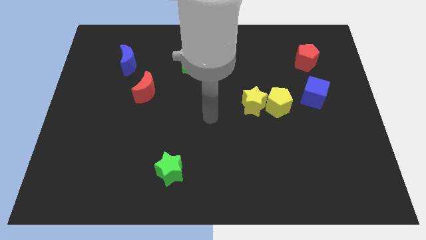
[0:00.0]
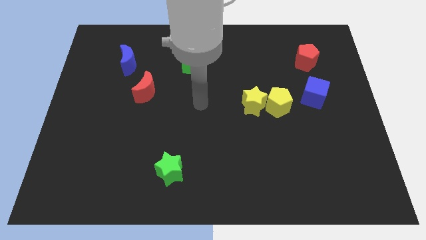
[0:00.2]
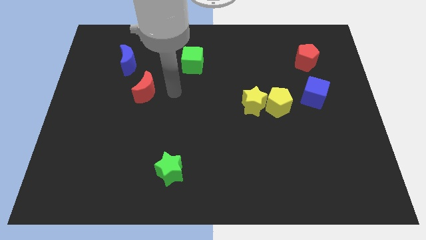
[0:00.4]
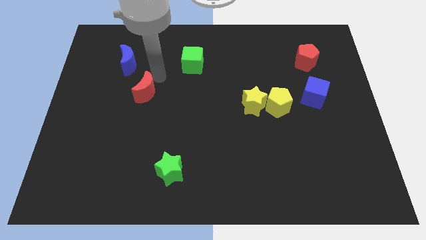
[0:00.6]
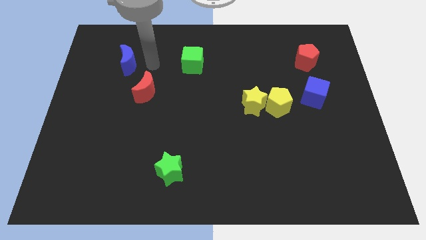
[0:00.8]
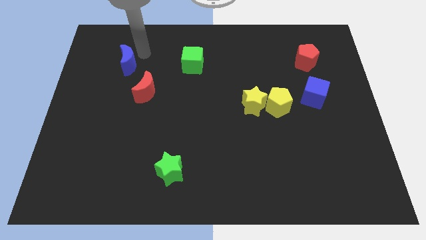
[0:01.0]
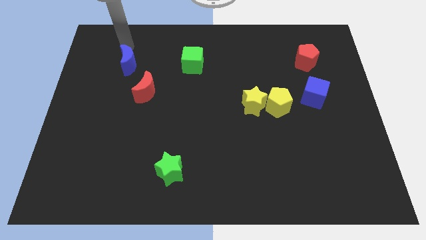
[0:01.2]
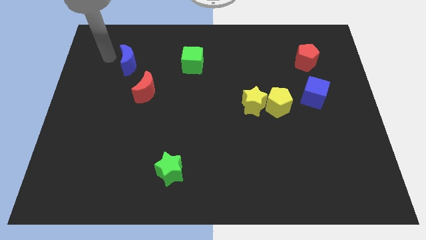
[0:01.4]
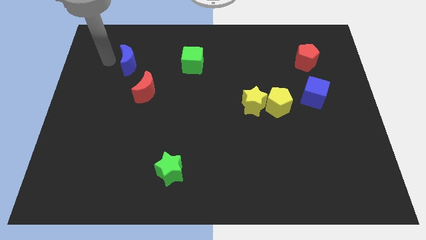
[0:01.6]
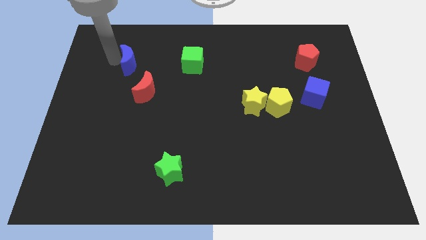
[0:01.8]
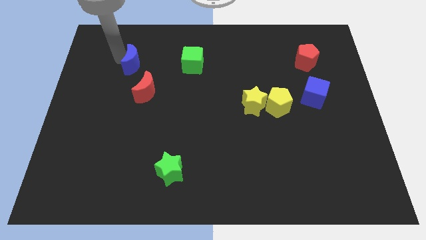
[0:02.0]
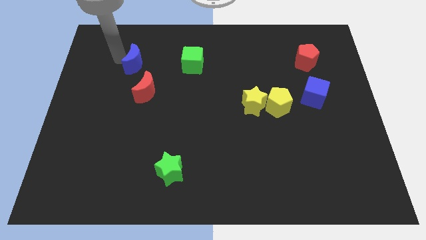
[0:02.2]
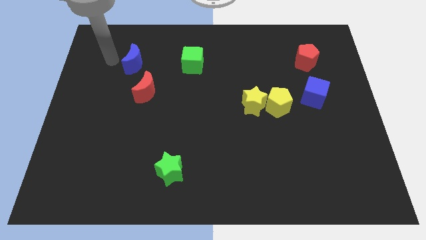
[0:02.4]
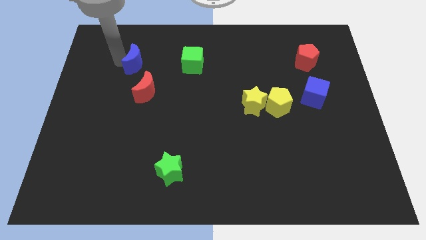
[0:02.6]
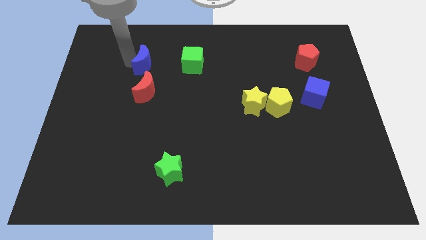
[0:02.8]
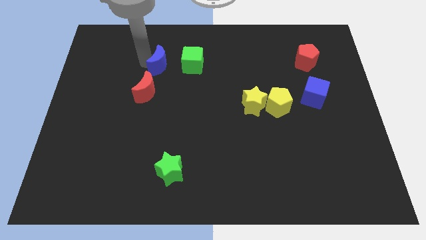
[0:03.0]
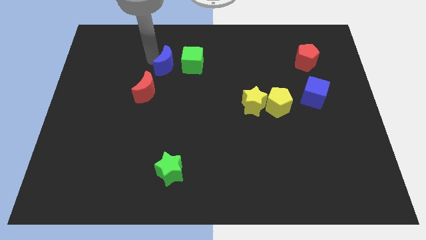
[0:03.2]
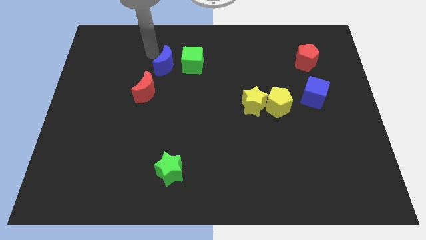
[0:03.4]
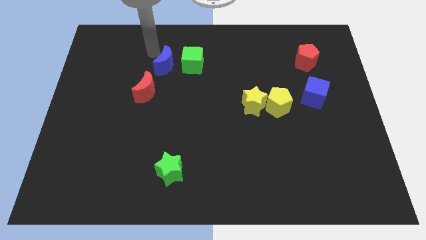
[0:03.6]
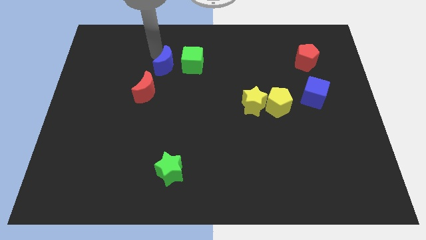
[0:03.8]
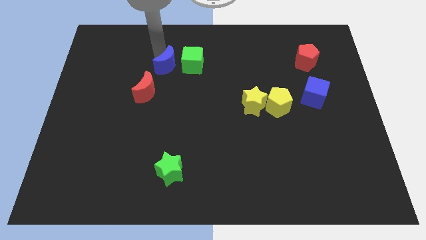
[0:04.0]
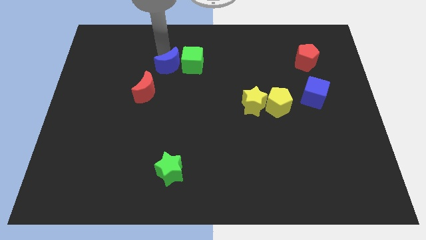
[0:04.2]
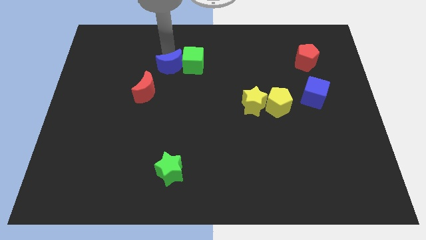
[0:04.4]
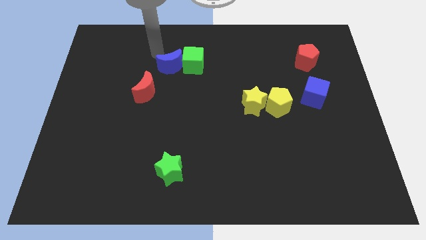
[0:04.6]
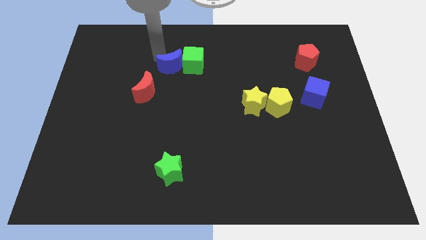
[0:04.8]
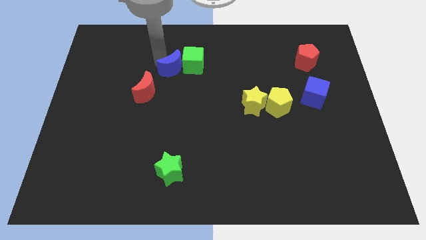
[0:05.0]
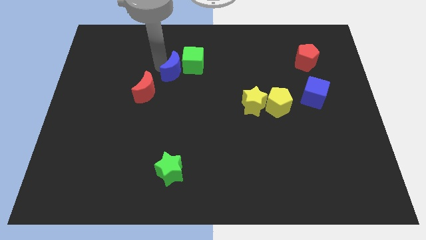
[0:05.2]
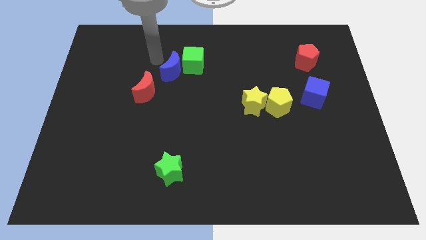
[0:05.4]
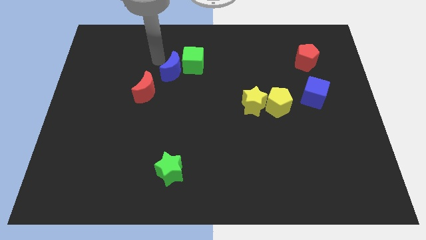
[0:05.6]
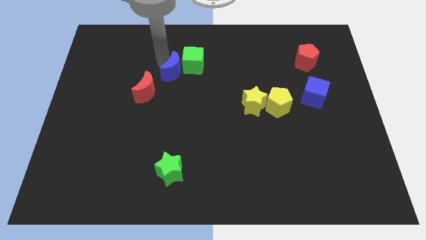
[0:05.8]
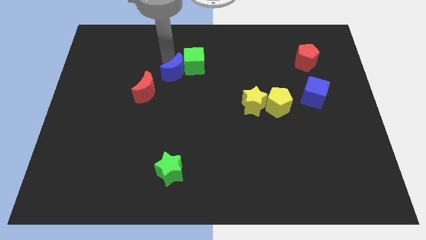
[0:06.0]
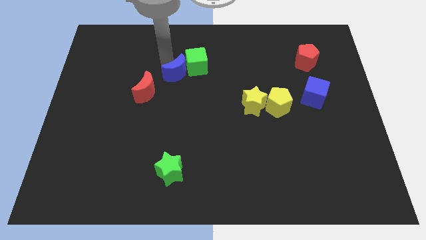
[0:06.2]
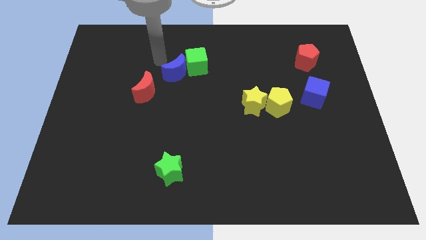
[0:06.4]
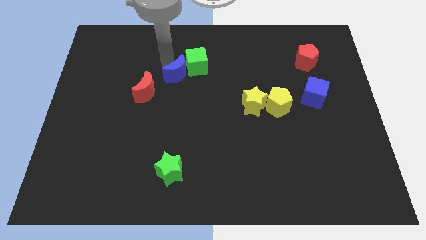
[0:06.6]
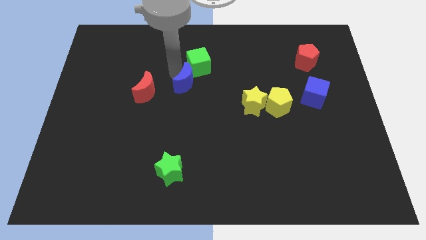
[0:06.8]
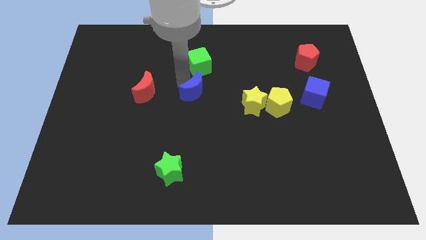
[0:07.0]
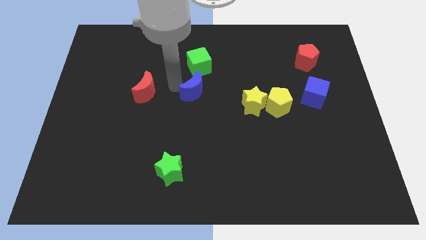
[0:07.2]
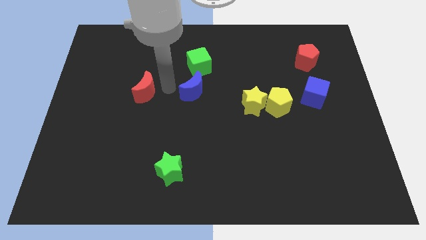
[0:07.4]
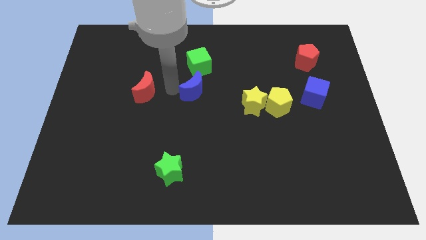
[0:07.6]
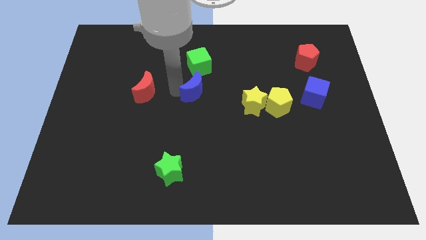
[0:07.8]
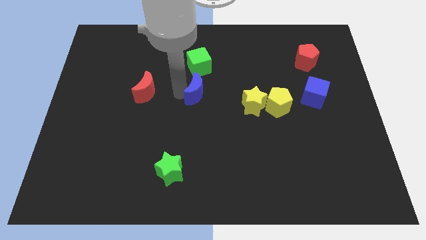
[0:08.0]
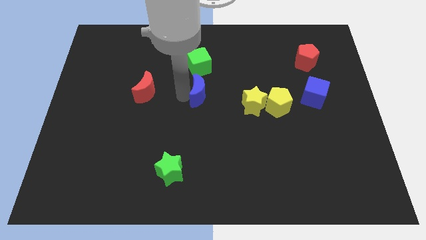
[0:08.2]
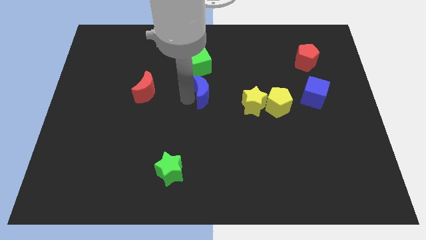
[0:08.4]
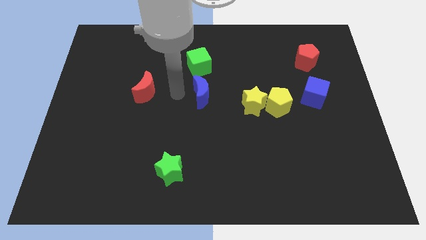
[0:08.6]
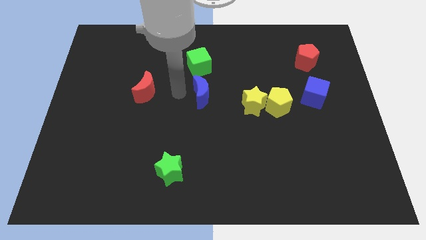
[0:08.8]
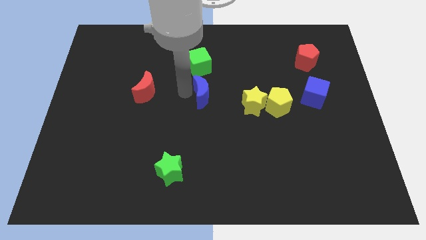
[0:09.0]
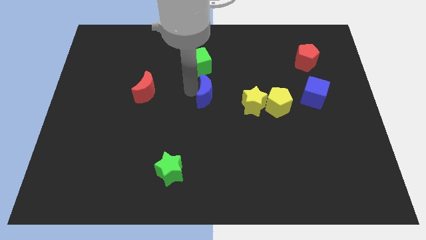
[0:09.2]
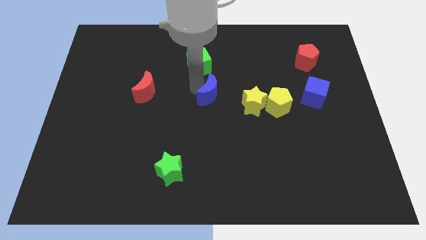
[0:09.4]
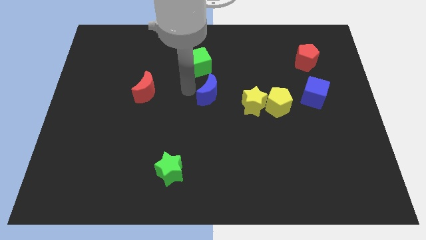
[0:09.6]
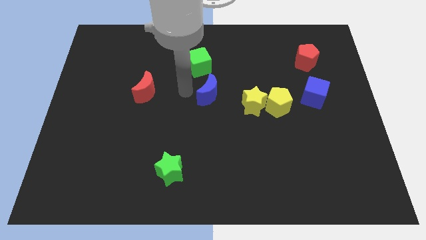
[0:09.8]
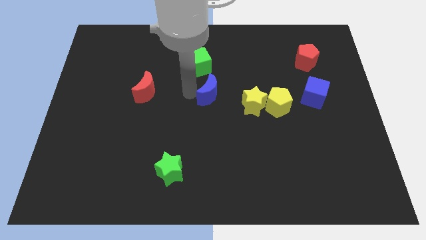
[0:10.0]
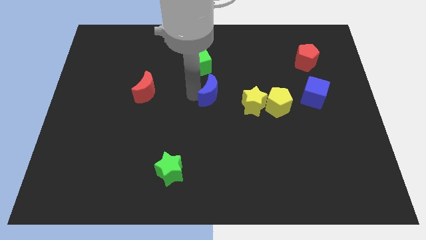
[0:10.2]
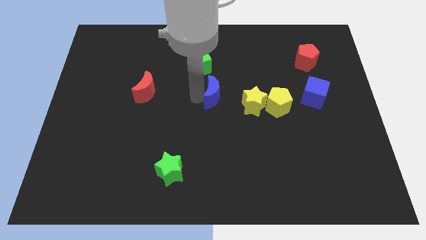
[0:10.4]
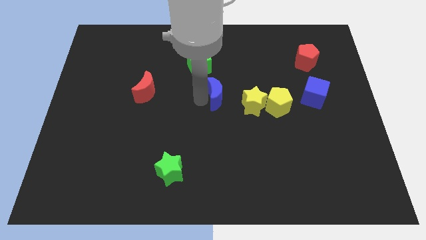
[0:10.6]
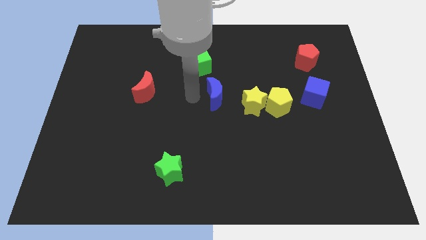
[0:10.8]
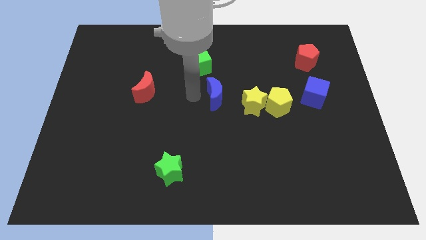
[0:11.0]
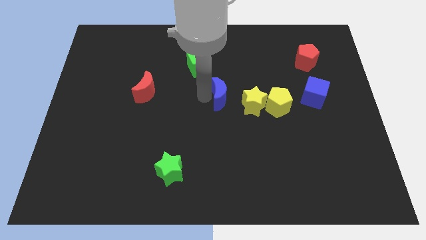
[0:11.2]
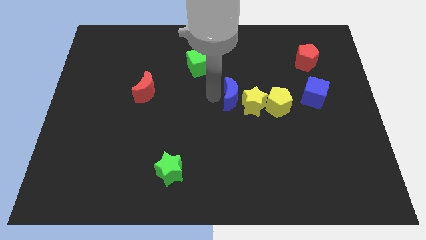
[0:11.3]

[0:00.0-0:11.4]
move the blue moon close to the yellow star

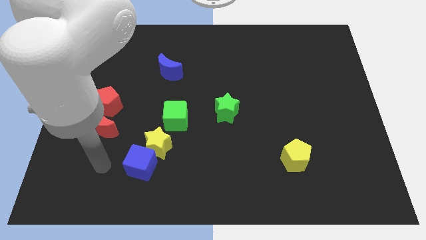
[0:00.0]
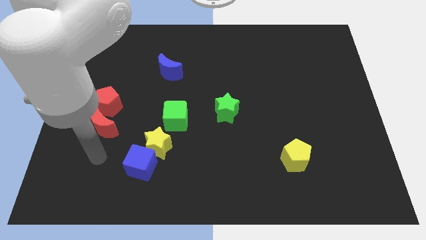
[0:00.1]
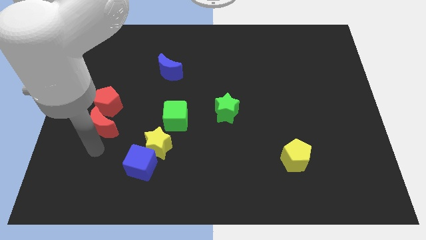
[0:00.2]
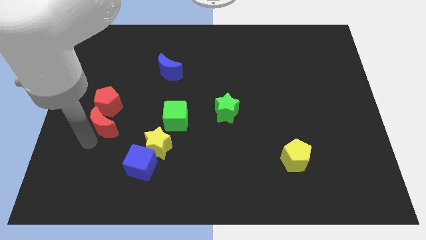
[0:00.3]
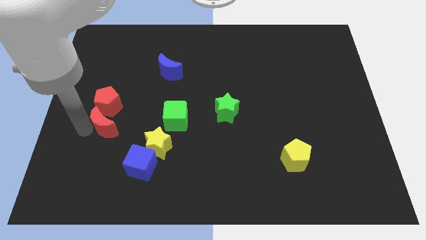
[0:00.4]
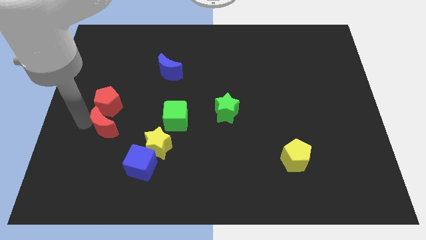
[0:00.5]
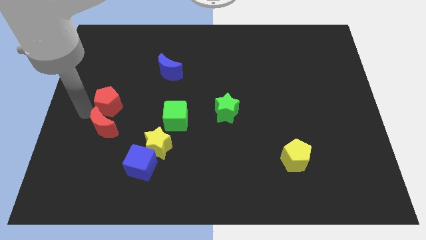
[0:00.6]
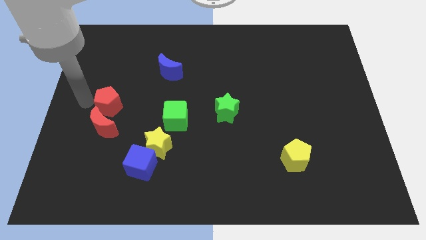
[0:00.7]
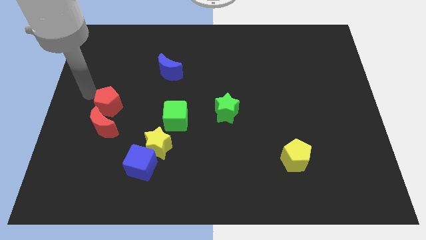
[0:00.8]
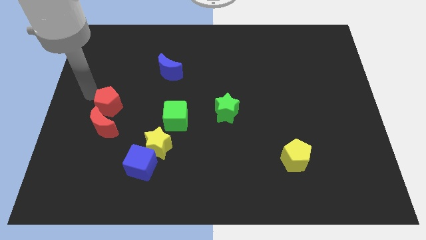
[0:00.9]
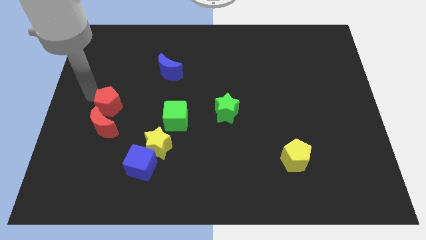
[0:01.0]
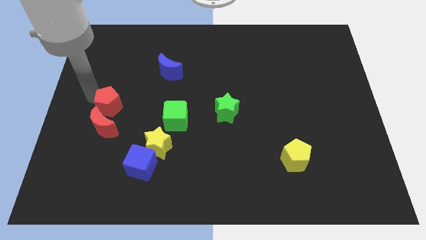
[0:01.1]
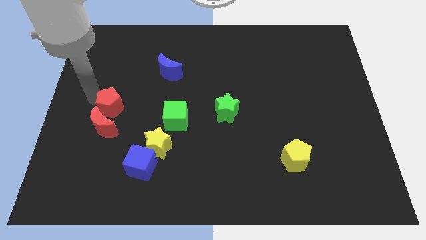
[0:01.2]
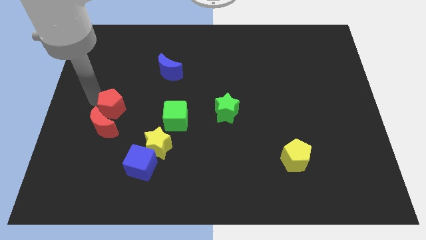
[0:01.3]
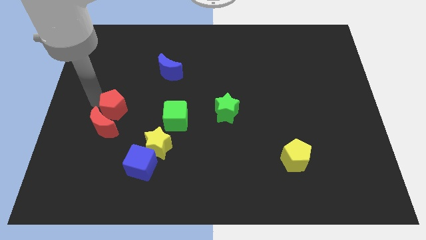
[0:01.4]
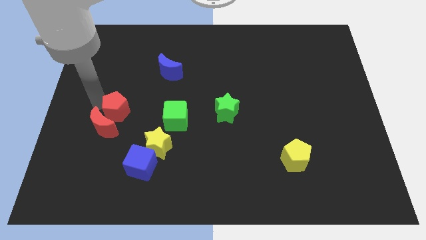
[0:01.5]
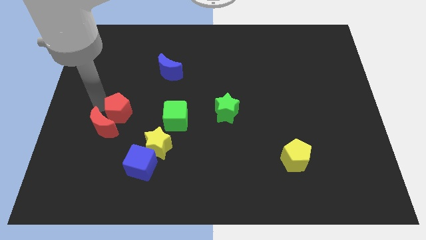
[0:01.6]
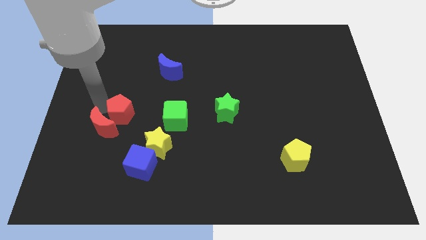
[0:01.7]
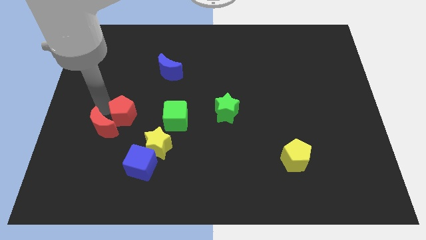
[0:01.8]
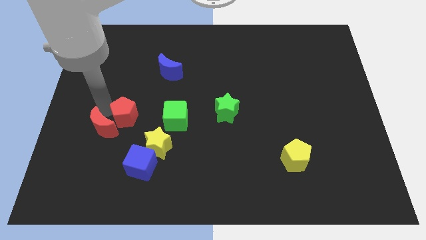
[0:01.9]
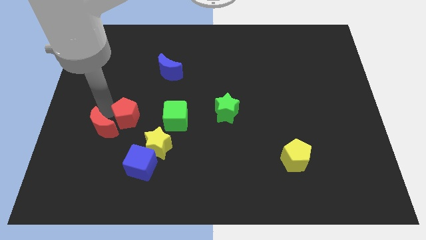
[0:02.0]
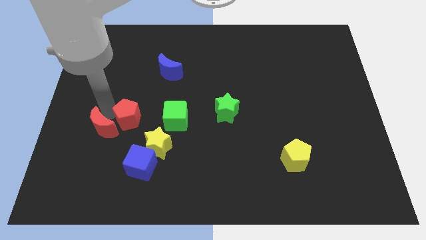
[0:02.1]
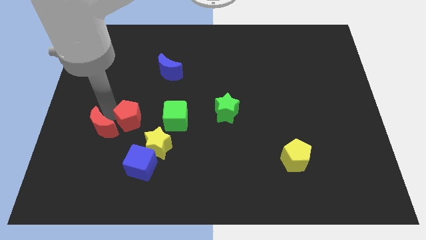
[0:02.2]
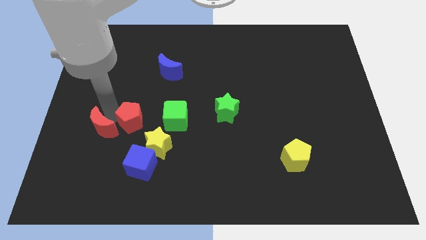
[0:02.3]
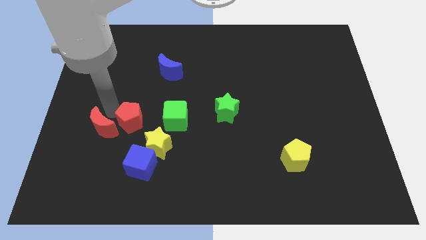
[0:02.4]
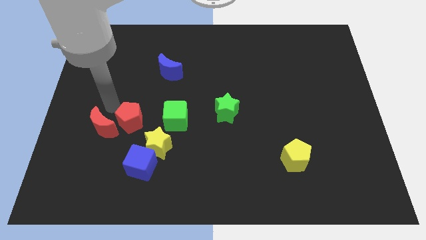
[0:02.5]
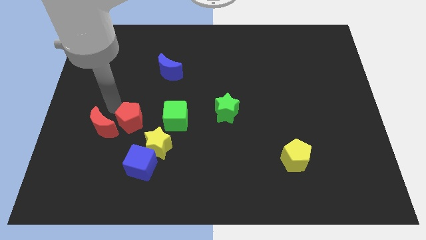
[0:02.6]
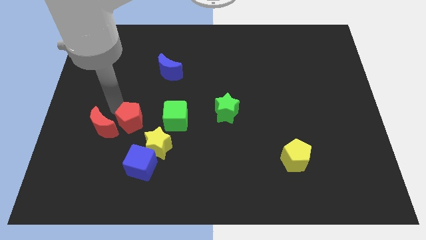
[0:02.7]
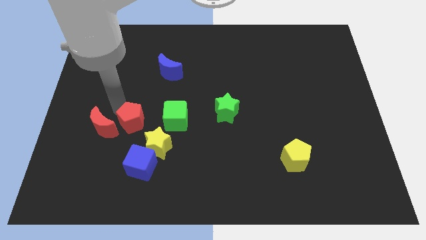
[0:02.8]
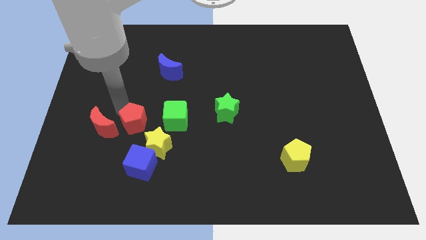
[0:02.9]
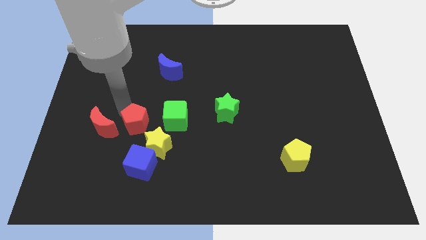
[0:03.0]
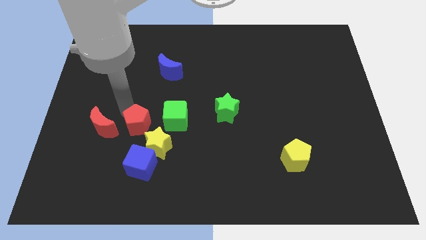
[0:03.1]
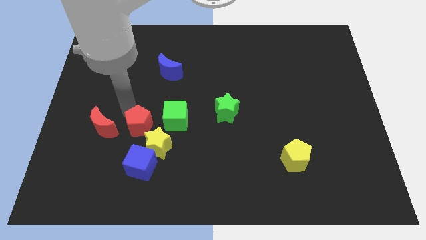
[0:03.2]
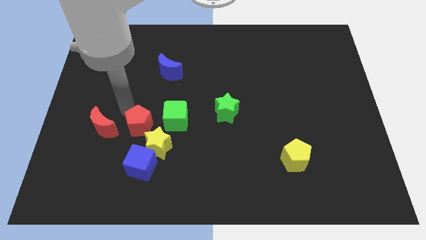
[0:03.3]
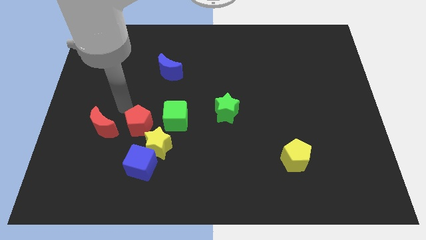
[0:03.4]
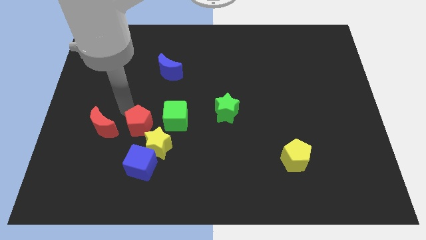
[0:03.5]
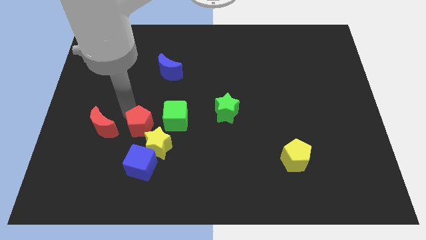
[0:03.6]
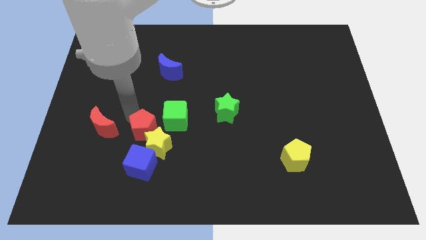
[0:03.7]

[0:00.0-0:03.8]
put the red pentagon close to the yellow star
